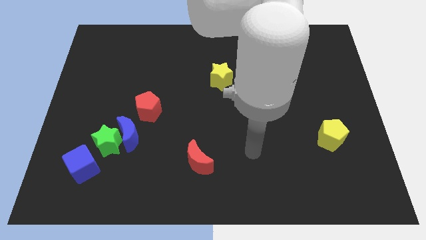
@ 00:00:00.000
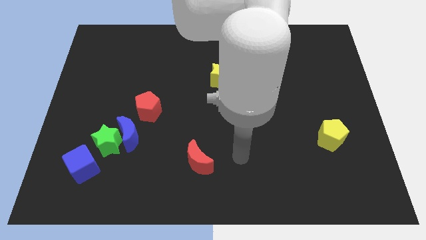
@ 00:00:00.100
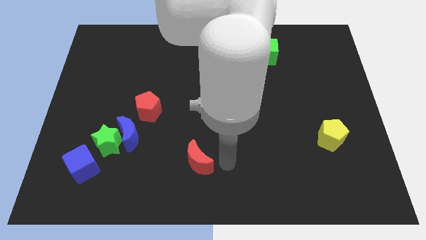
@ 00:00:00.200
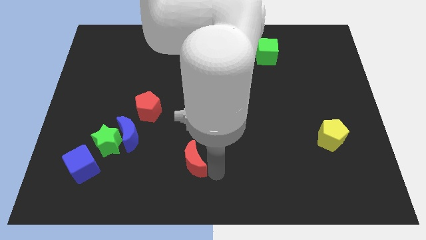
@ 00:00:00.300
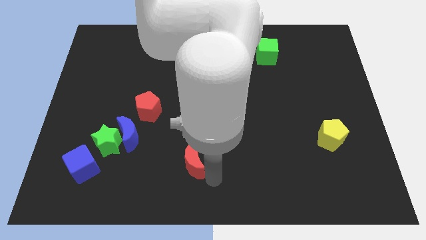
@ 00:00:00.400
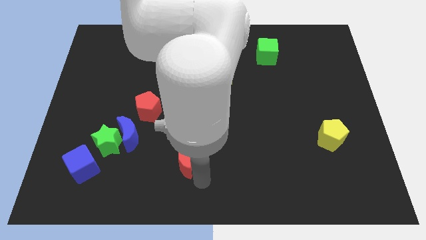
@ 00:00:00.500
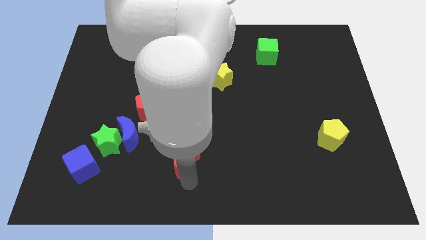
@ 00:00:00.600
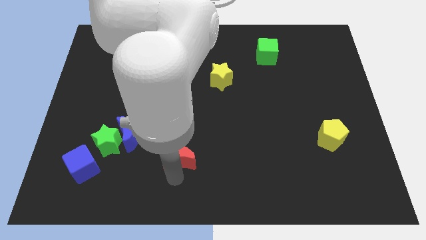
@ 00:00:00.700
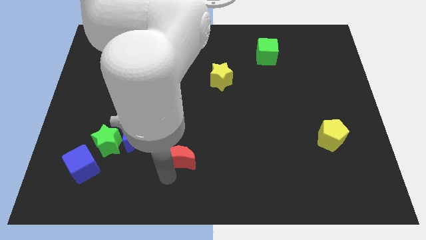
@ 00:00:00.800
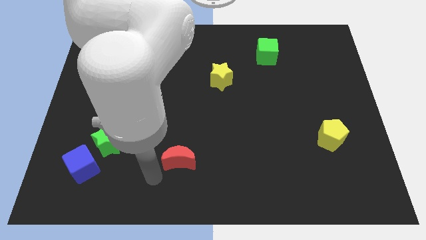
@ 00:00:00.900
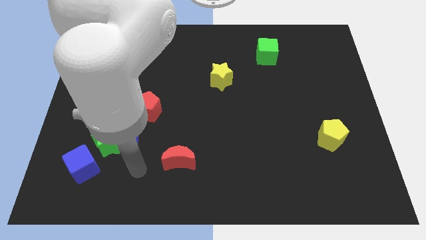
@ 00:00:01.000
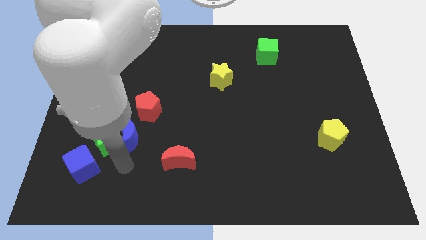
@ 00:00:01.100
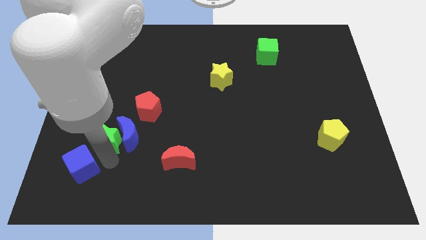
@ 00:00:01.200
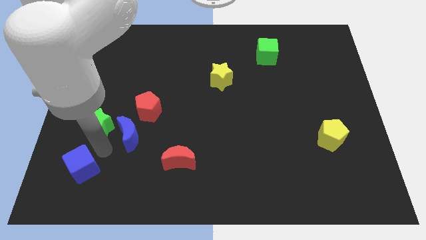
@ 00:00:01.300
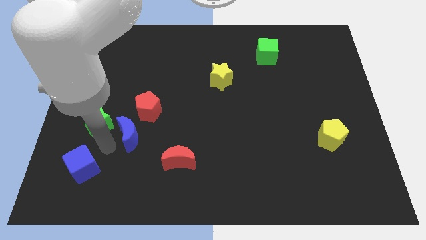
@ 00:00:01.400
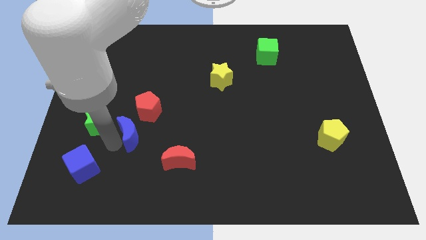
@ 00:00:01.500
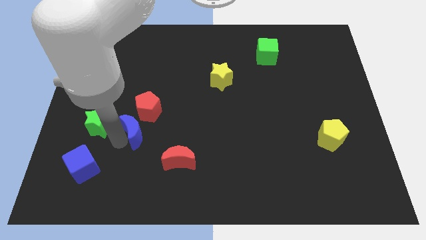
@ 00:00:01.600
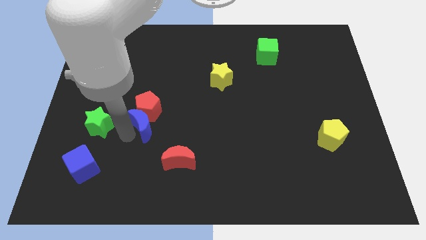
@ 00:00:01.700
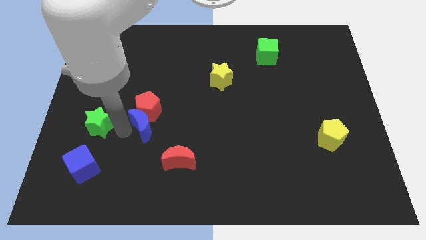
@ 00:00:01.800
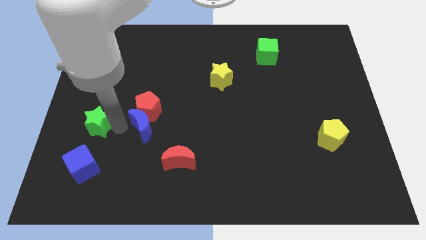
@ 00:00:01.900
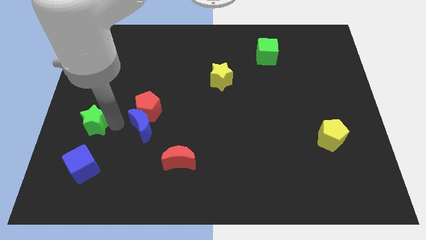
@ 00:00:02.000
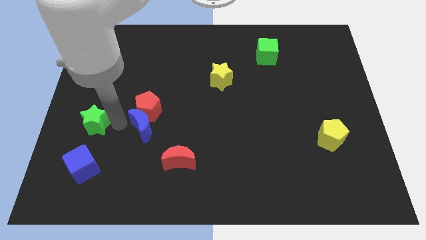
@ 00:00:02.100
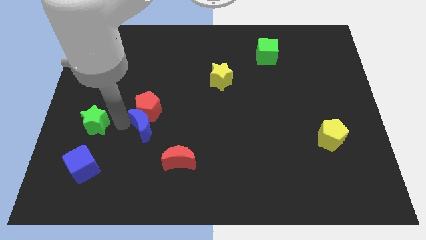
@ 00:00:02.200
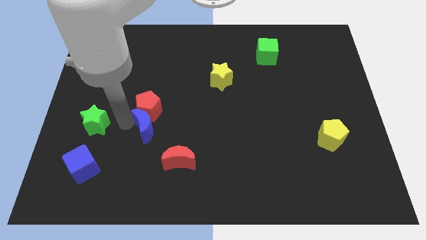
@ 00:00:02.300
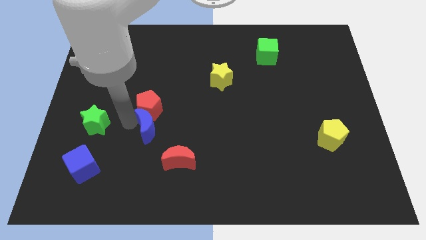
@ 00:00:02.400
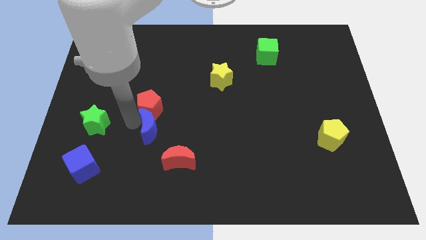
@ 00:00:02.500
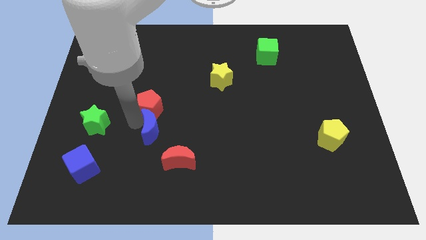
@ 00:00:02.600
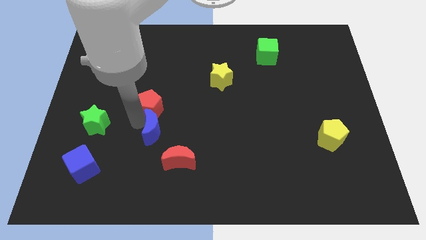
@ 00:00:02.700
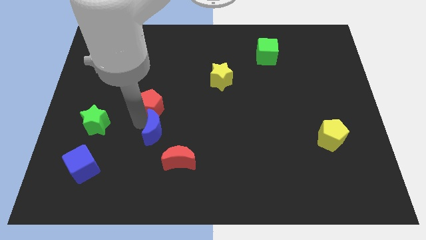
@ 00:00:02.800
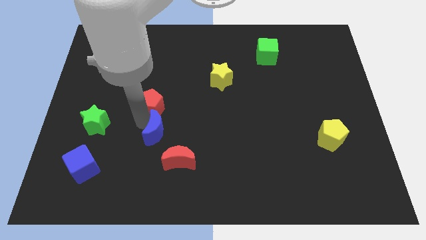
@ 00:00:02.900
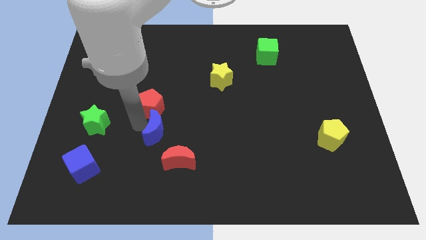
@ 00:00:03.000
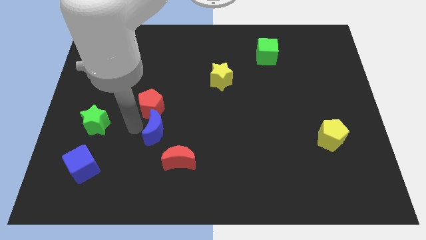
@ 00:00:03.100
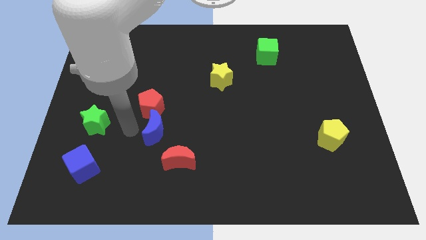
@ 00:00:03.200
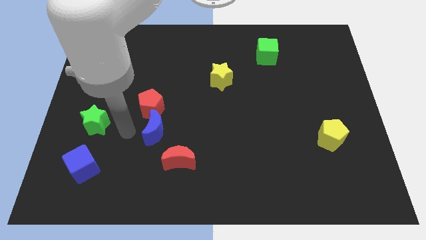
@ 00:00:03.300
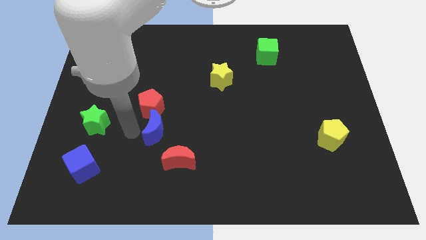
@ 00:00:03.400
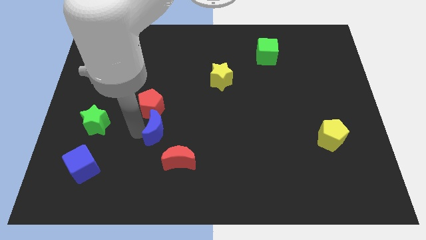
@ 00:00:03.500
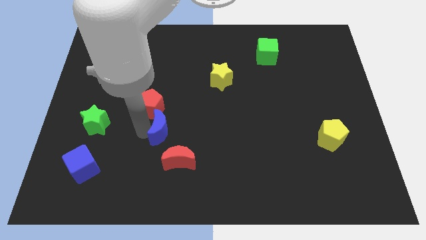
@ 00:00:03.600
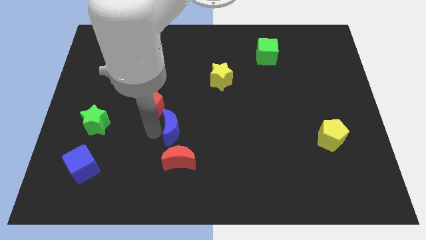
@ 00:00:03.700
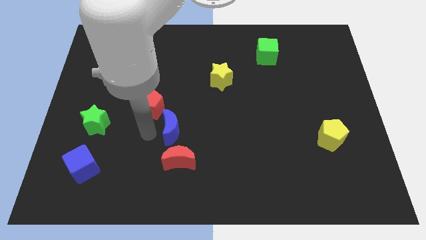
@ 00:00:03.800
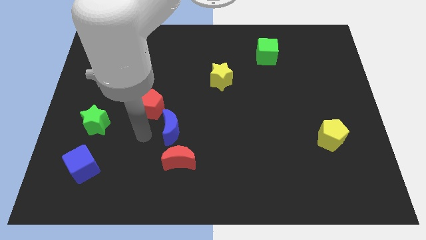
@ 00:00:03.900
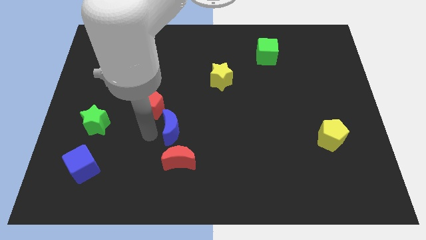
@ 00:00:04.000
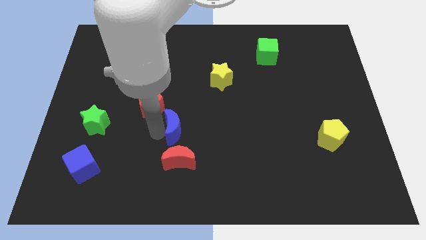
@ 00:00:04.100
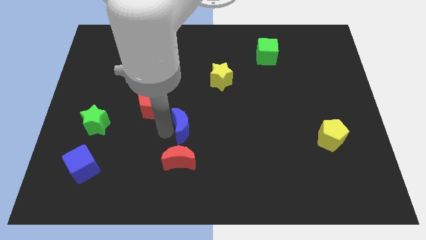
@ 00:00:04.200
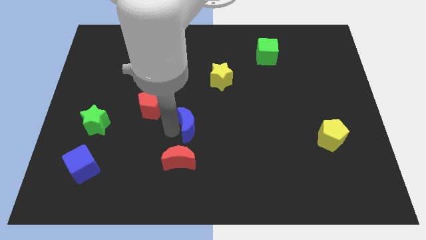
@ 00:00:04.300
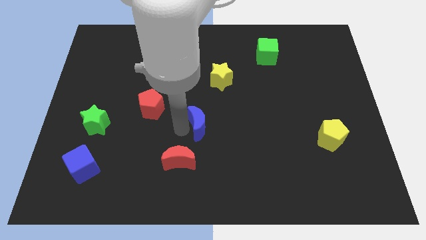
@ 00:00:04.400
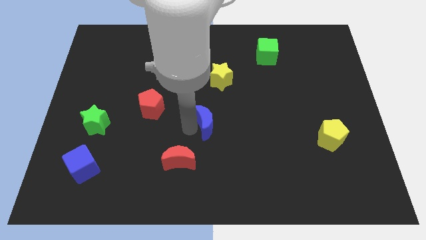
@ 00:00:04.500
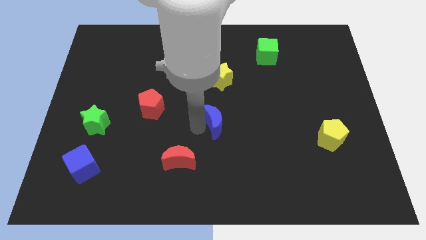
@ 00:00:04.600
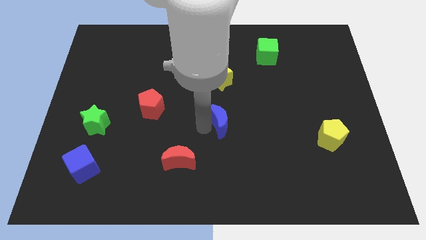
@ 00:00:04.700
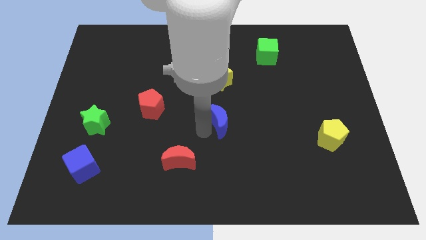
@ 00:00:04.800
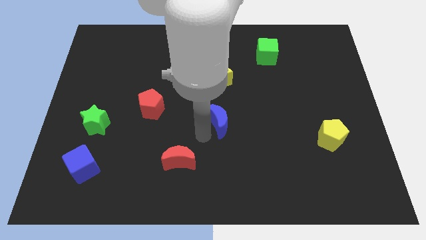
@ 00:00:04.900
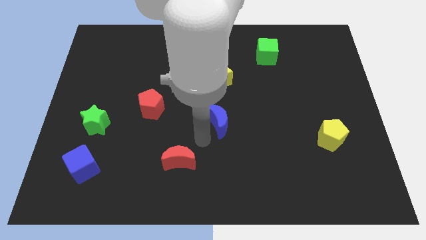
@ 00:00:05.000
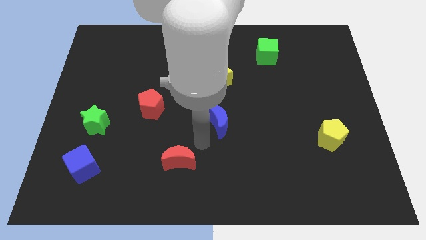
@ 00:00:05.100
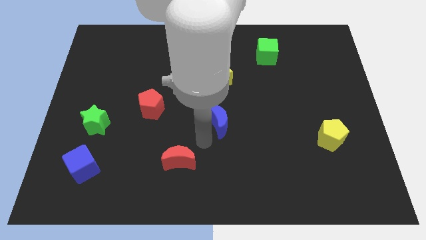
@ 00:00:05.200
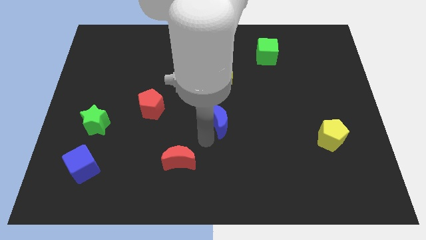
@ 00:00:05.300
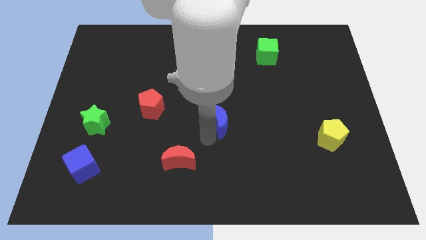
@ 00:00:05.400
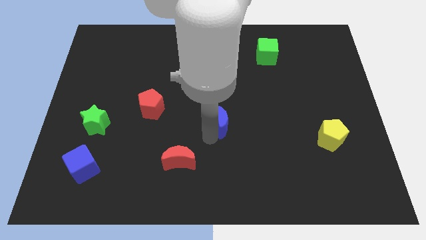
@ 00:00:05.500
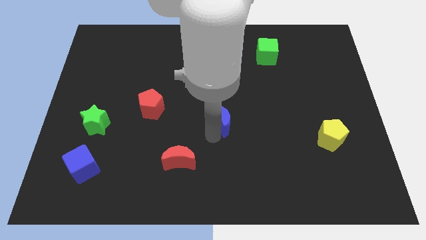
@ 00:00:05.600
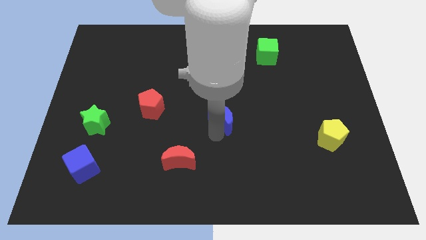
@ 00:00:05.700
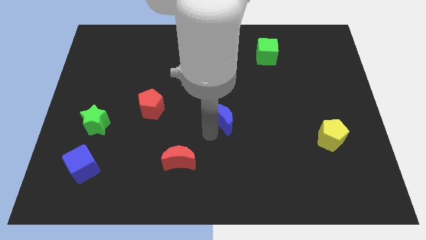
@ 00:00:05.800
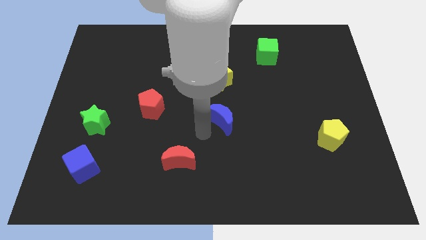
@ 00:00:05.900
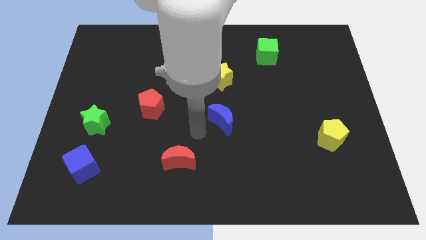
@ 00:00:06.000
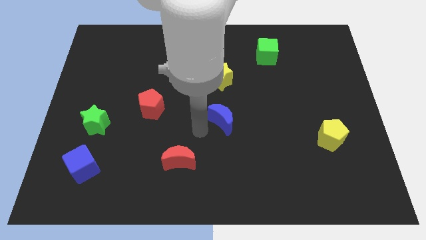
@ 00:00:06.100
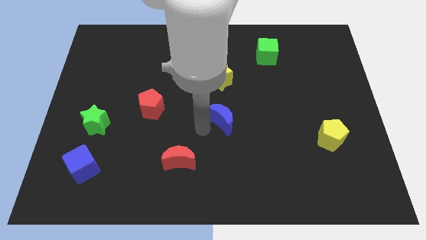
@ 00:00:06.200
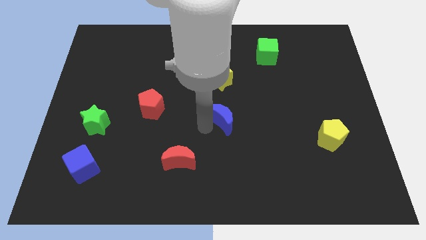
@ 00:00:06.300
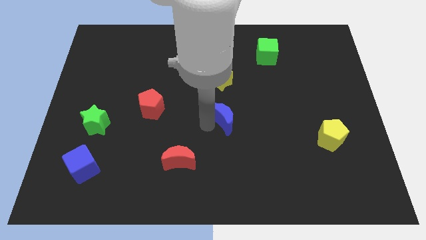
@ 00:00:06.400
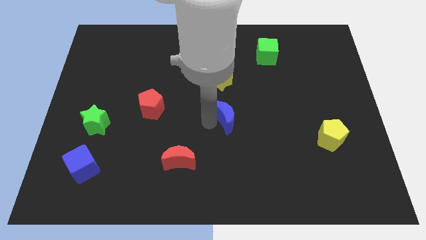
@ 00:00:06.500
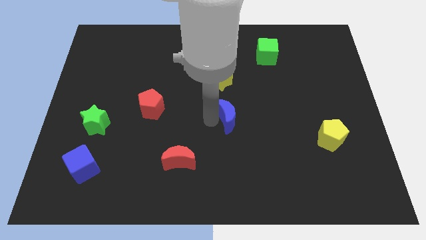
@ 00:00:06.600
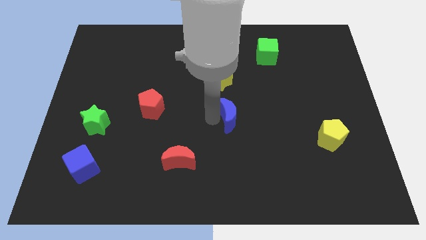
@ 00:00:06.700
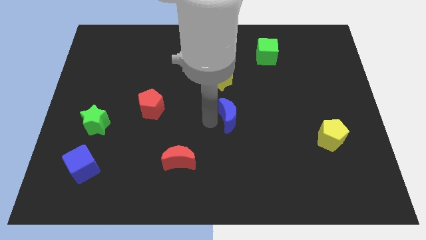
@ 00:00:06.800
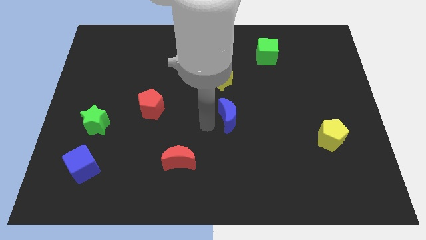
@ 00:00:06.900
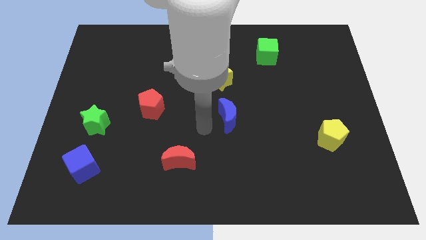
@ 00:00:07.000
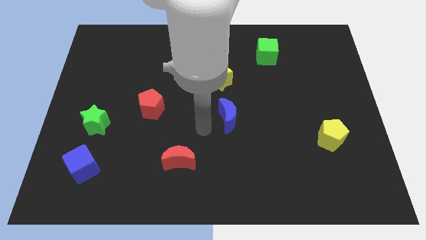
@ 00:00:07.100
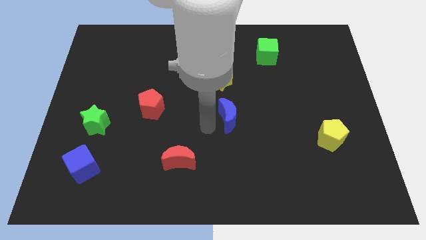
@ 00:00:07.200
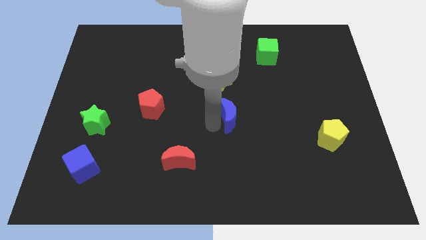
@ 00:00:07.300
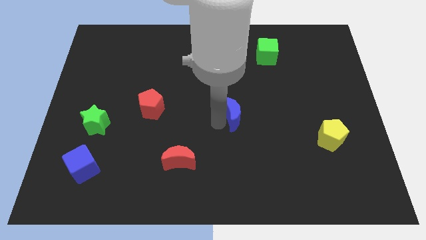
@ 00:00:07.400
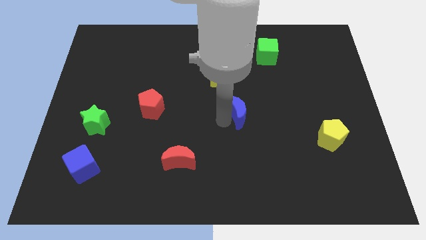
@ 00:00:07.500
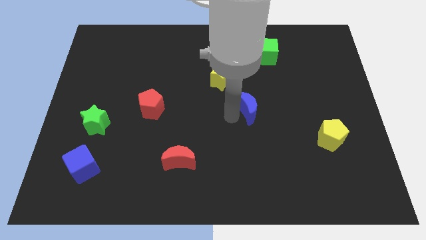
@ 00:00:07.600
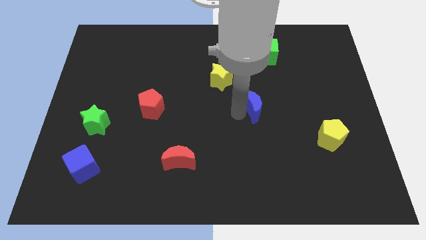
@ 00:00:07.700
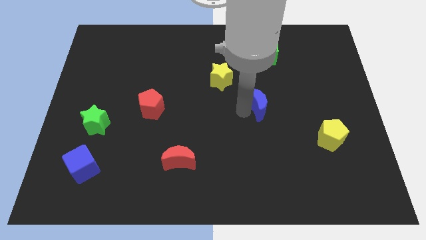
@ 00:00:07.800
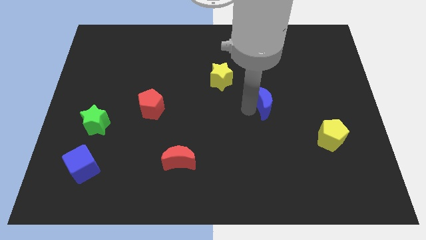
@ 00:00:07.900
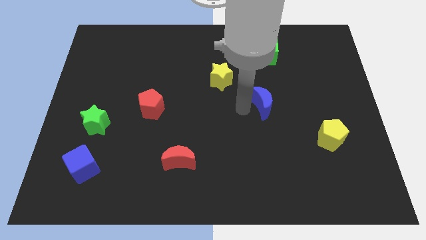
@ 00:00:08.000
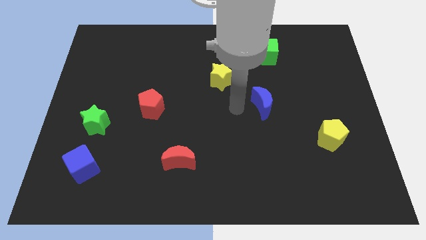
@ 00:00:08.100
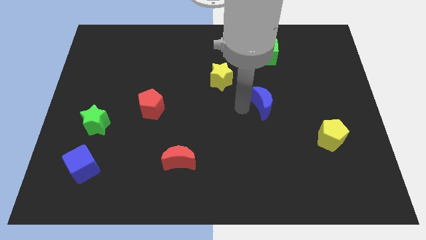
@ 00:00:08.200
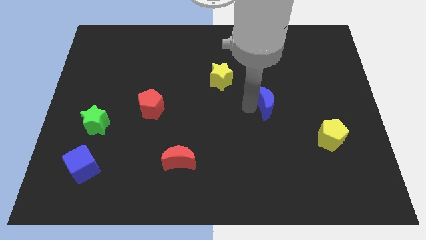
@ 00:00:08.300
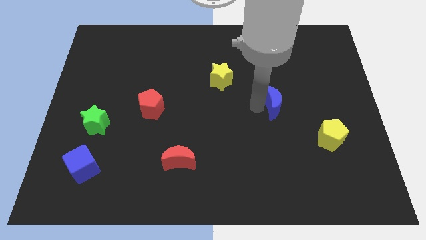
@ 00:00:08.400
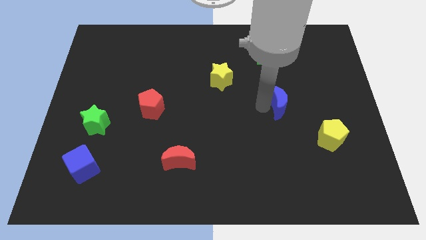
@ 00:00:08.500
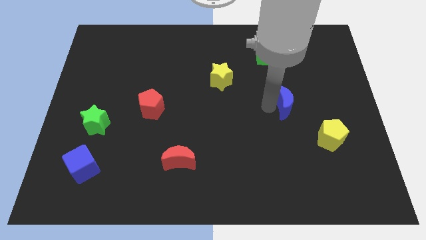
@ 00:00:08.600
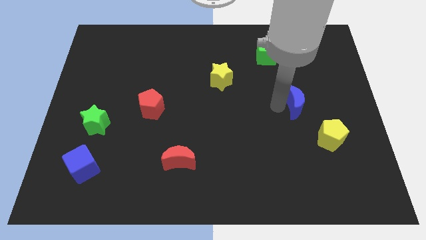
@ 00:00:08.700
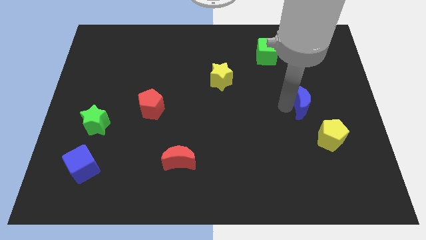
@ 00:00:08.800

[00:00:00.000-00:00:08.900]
slide the blue moon above the yellow pentagon
